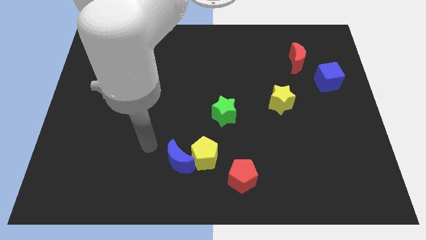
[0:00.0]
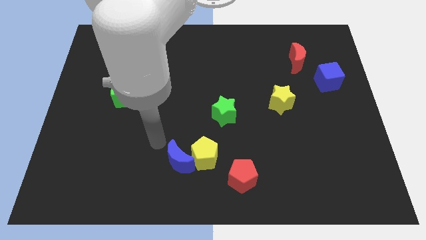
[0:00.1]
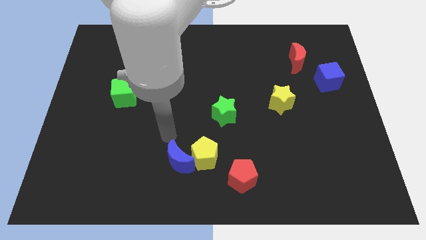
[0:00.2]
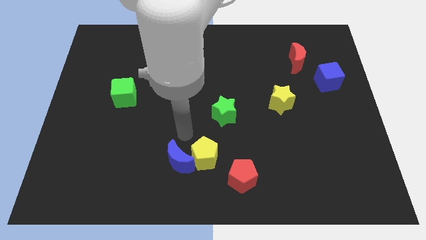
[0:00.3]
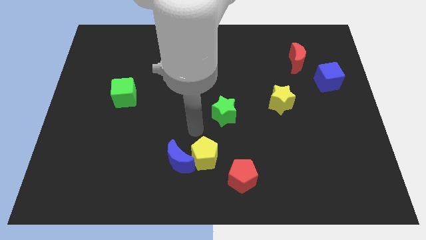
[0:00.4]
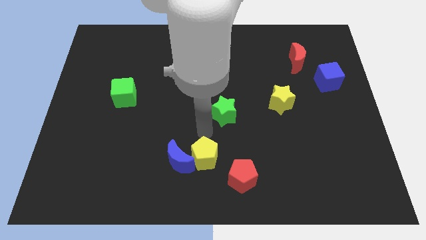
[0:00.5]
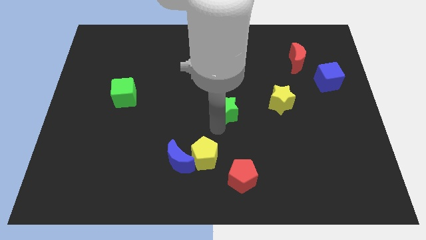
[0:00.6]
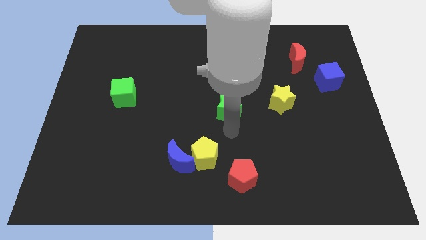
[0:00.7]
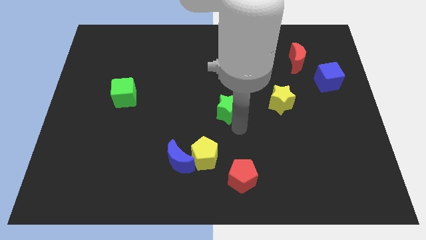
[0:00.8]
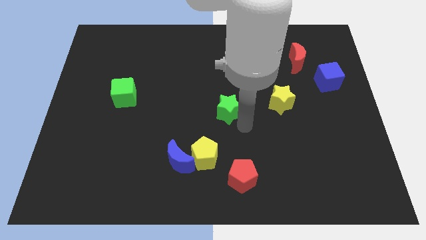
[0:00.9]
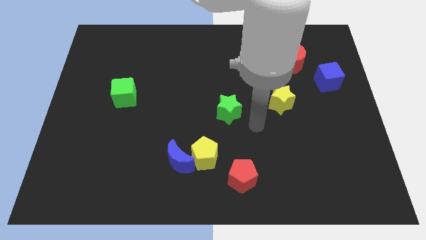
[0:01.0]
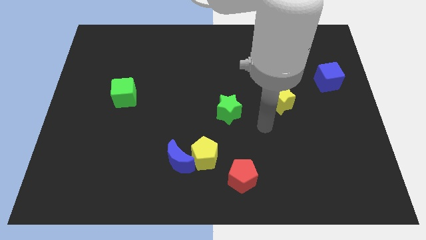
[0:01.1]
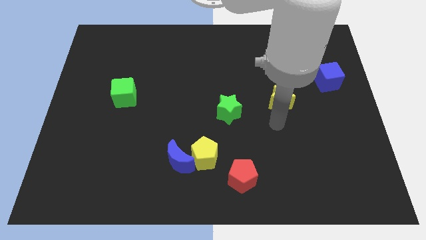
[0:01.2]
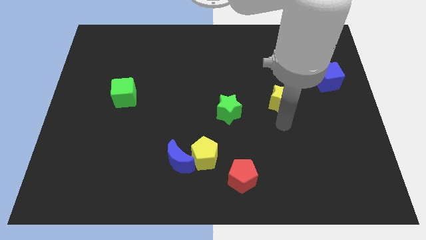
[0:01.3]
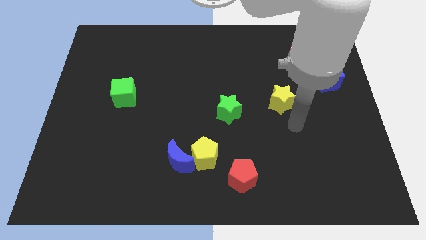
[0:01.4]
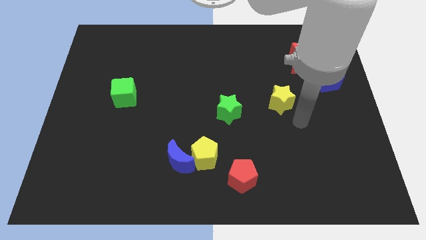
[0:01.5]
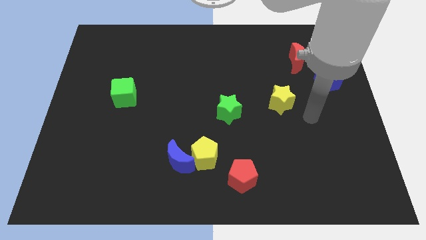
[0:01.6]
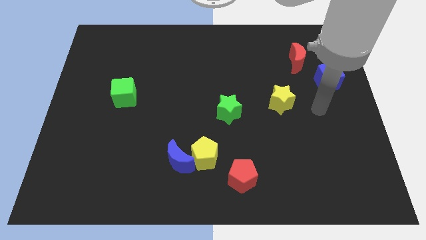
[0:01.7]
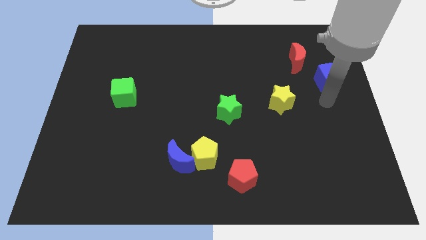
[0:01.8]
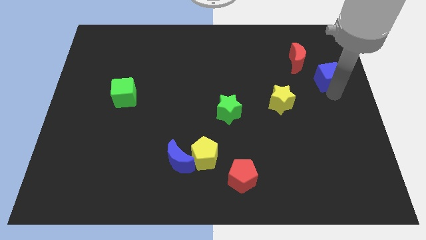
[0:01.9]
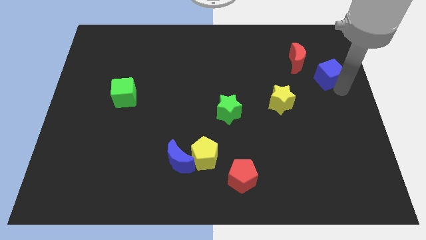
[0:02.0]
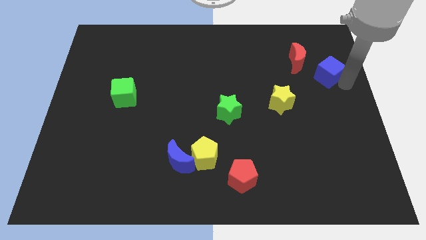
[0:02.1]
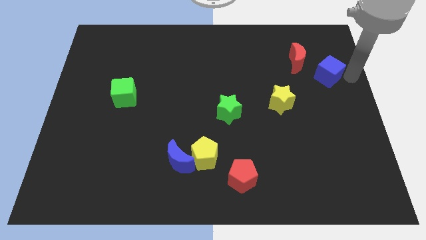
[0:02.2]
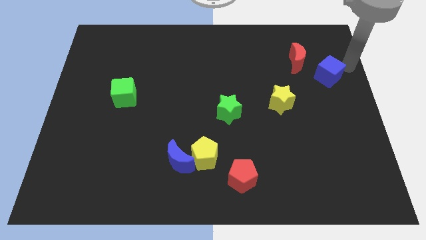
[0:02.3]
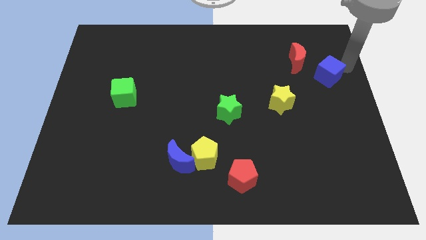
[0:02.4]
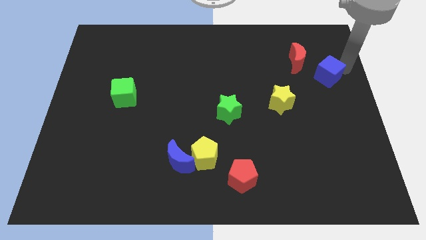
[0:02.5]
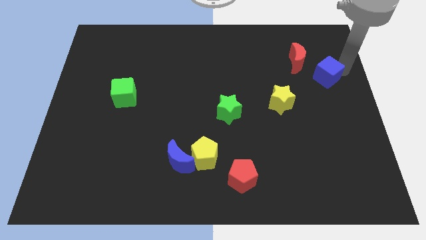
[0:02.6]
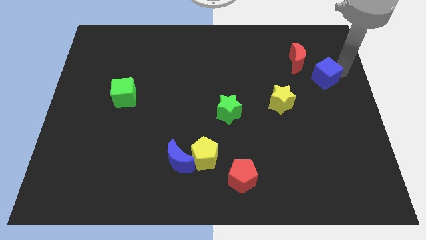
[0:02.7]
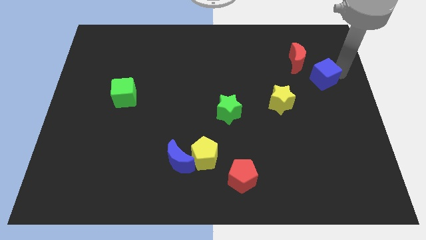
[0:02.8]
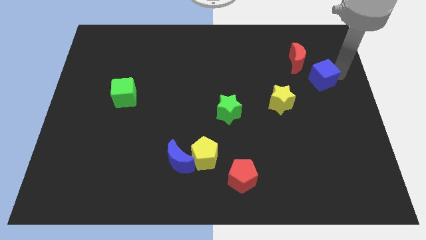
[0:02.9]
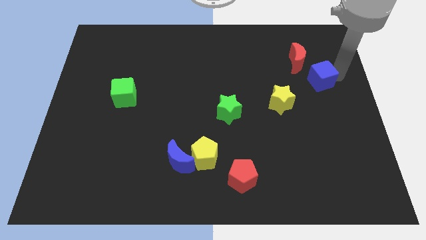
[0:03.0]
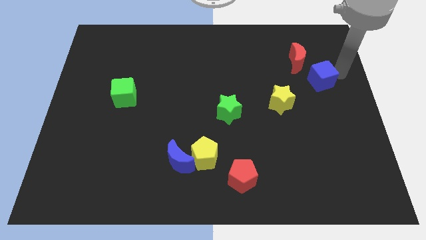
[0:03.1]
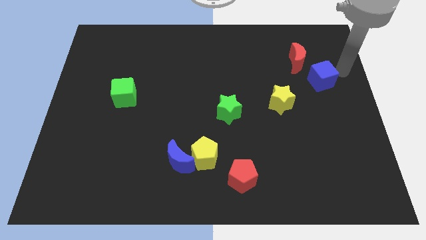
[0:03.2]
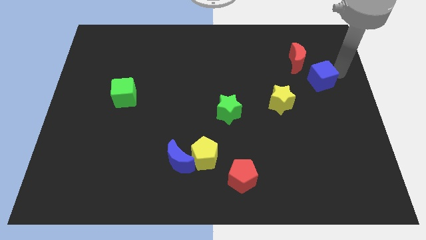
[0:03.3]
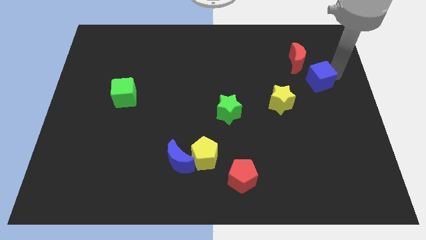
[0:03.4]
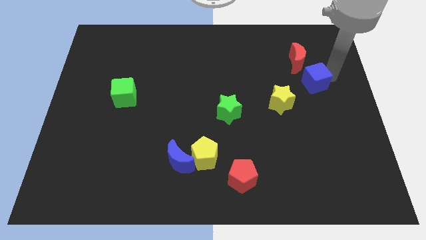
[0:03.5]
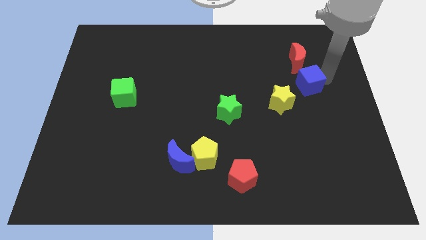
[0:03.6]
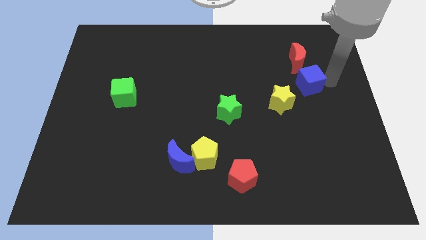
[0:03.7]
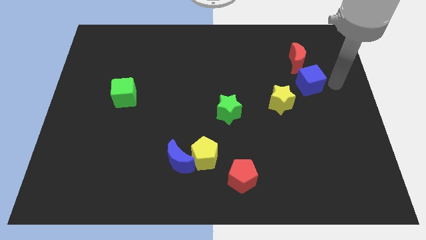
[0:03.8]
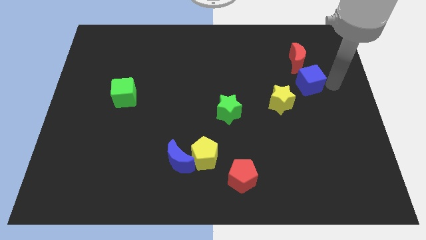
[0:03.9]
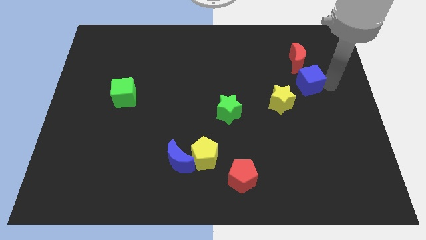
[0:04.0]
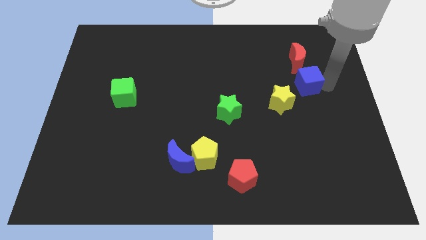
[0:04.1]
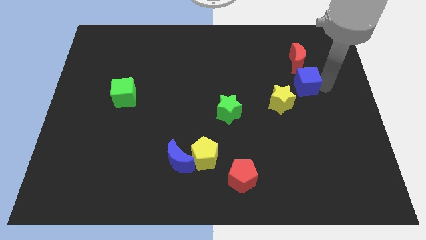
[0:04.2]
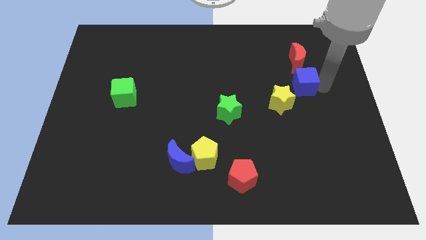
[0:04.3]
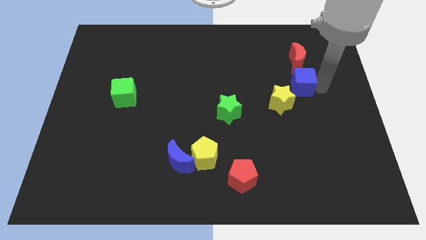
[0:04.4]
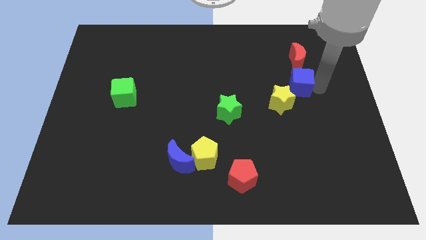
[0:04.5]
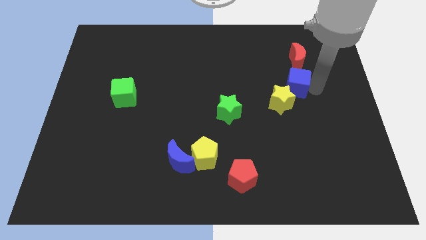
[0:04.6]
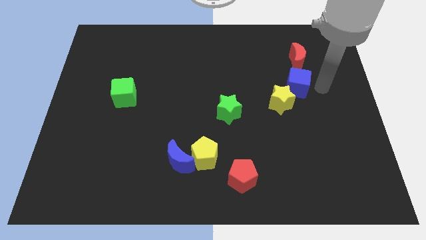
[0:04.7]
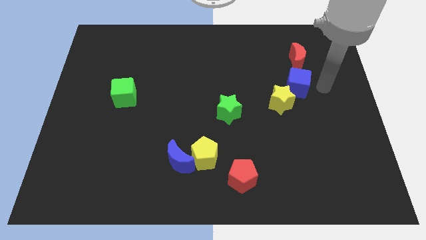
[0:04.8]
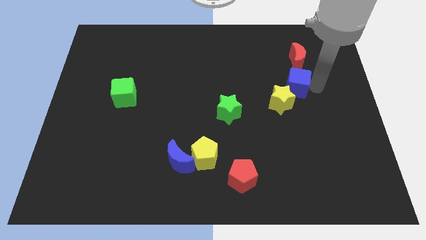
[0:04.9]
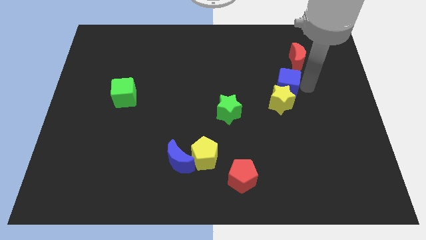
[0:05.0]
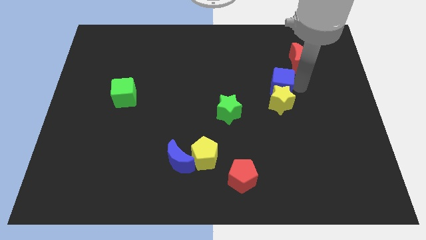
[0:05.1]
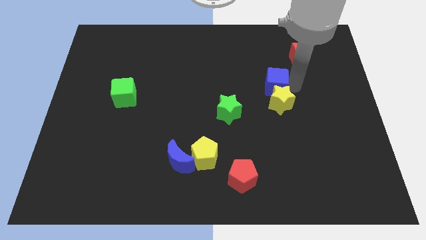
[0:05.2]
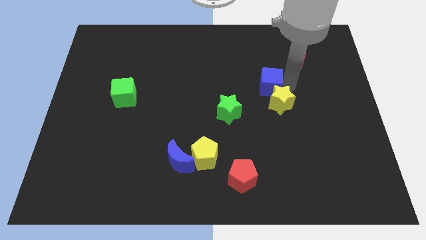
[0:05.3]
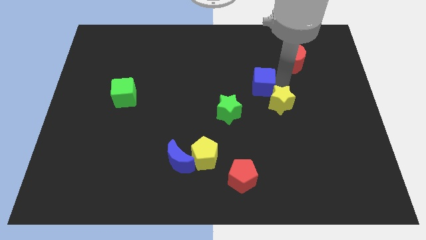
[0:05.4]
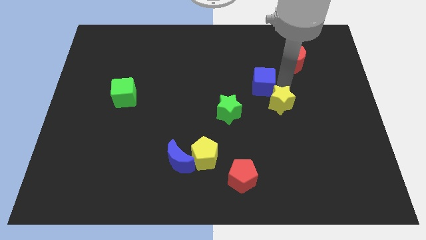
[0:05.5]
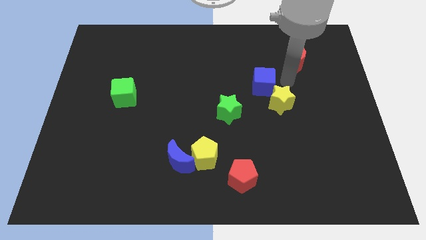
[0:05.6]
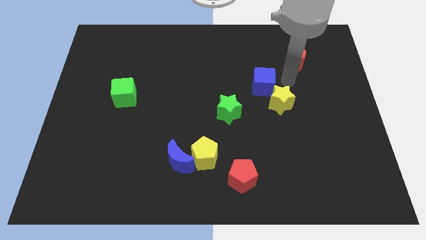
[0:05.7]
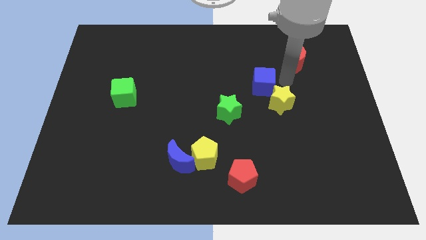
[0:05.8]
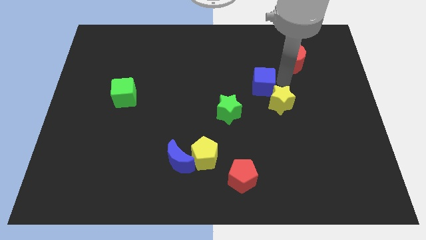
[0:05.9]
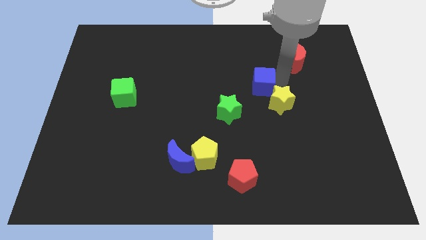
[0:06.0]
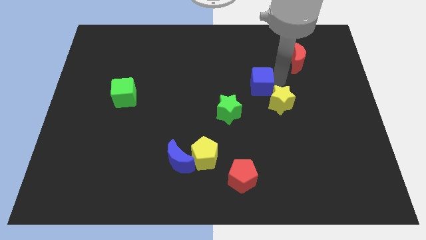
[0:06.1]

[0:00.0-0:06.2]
put the blue cube to the middle of the board
